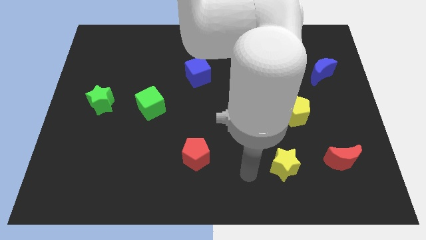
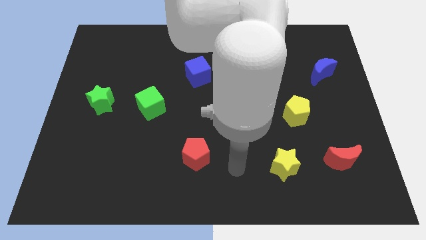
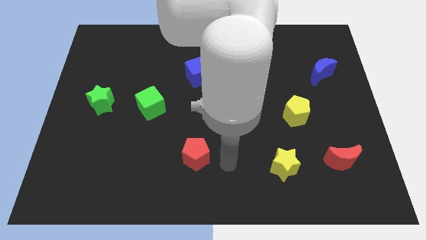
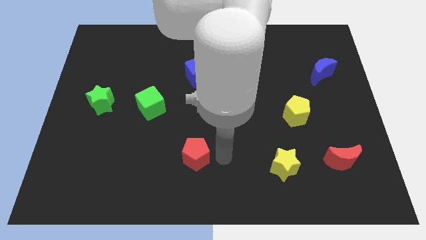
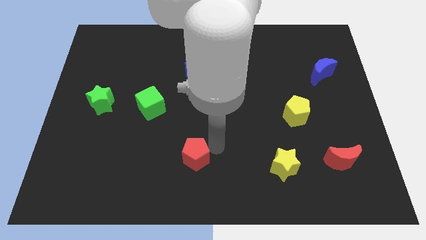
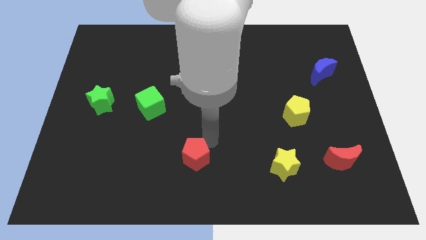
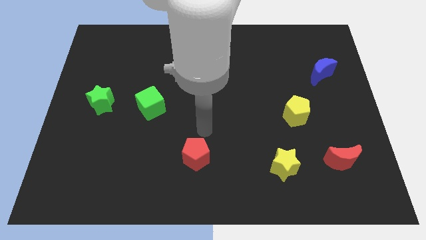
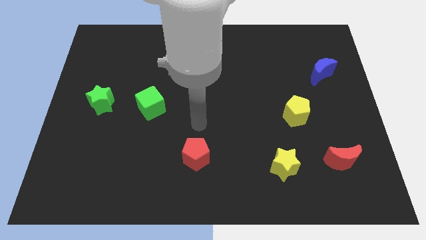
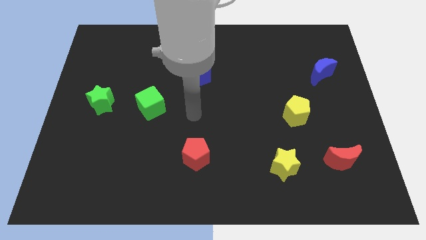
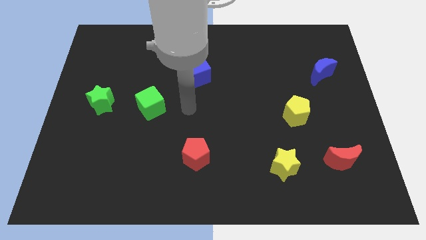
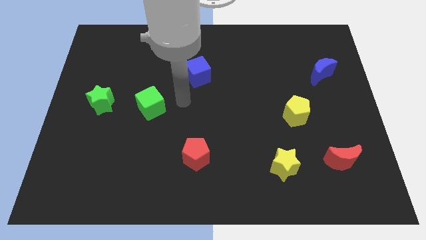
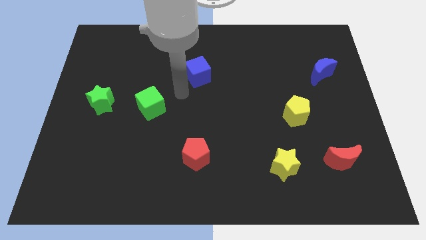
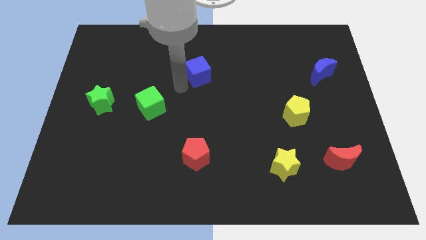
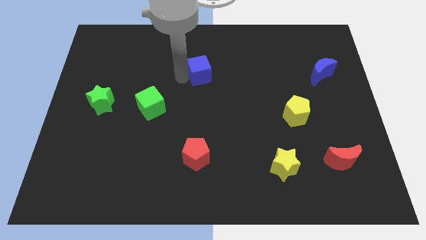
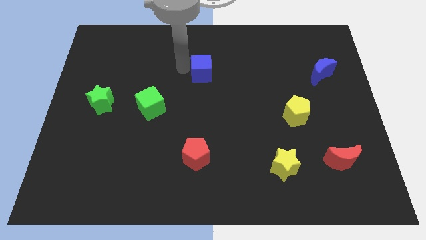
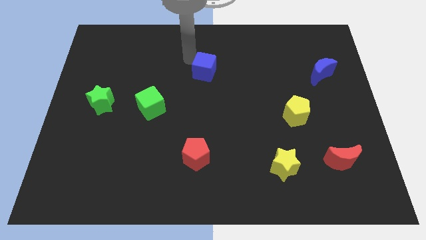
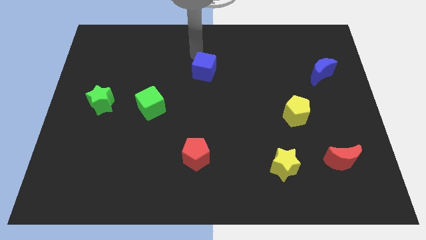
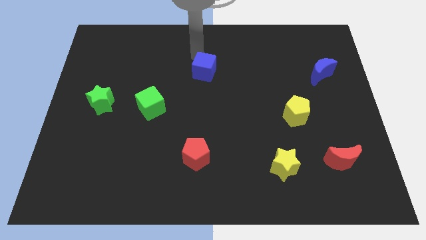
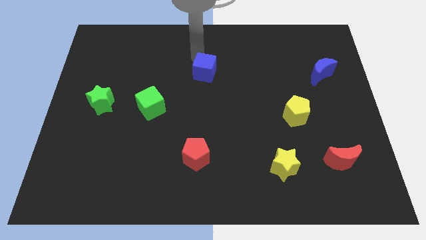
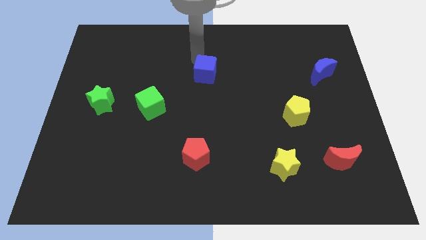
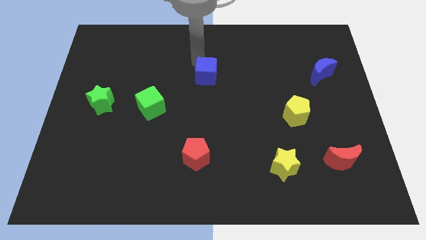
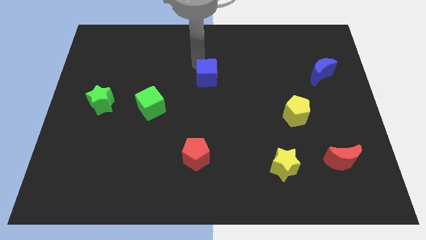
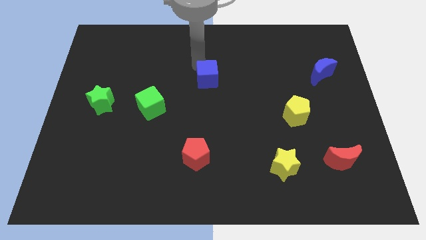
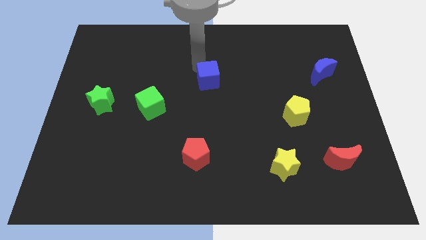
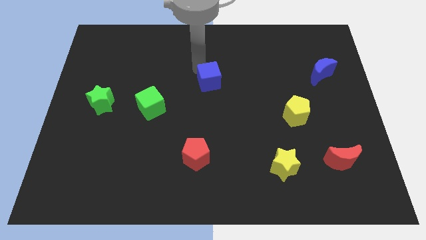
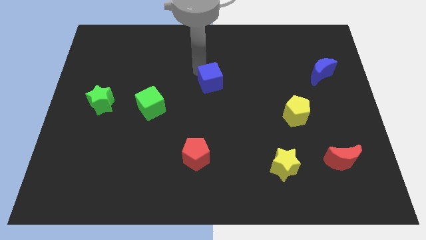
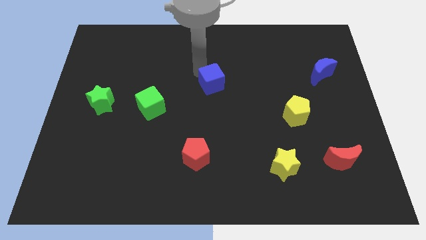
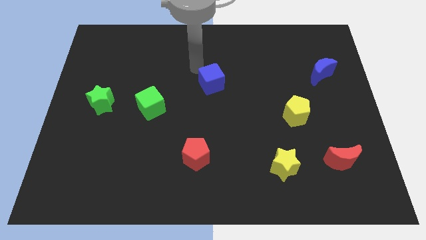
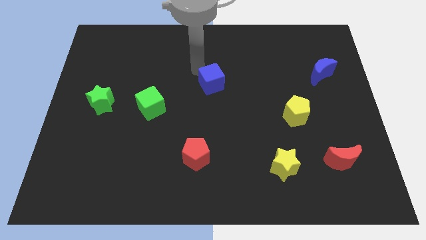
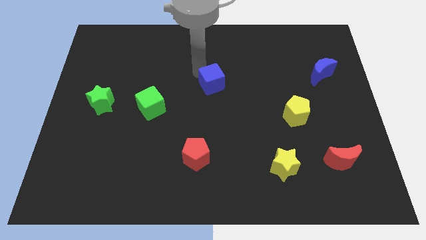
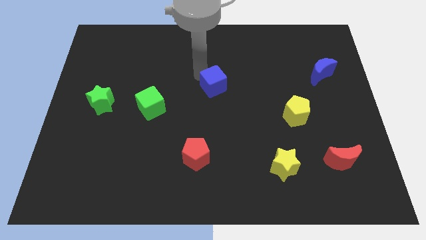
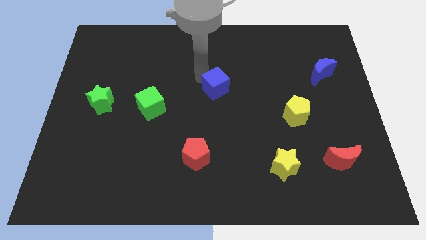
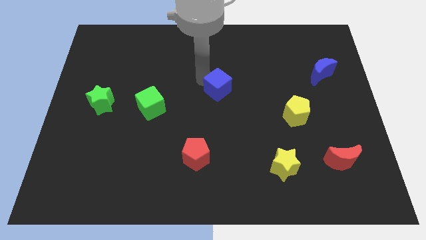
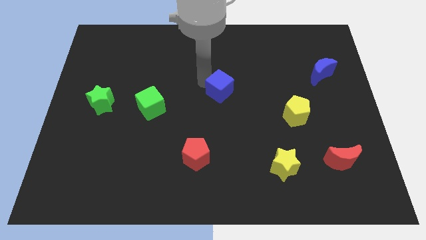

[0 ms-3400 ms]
move the blue cube slightly down and right diagonally

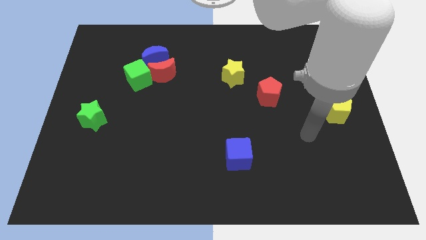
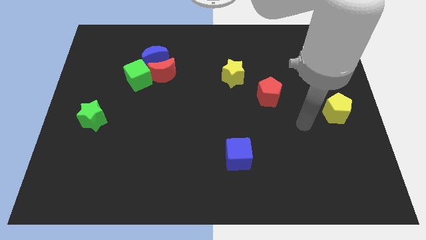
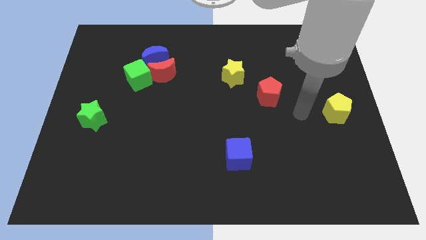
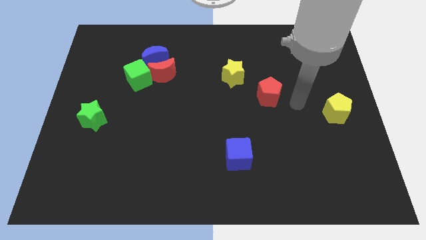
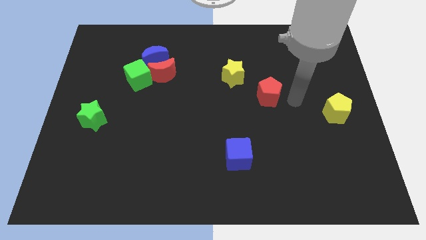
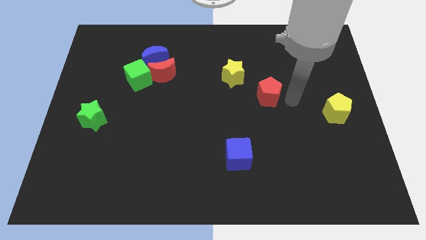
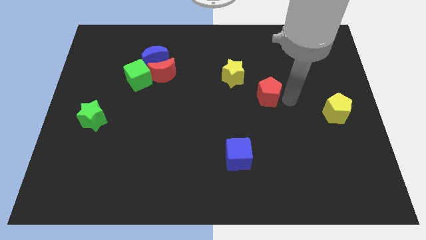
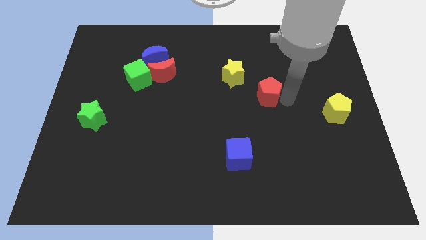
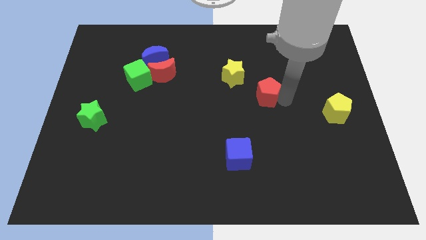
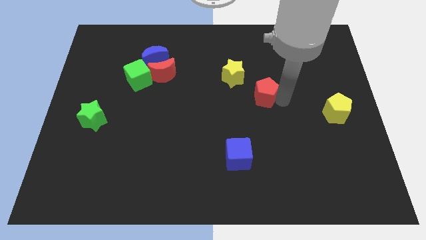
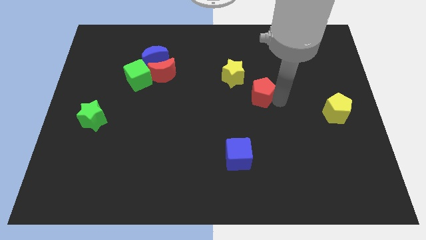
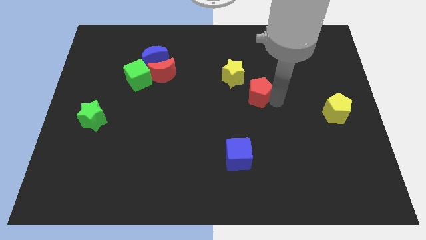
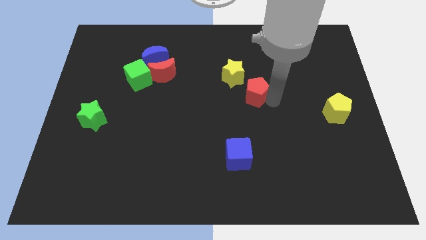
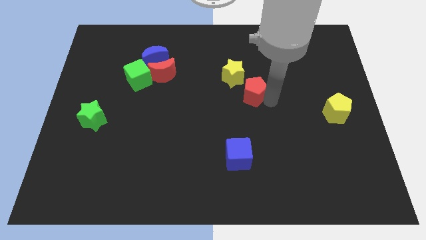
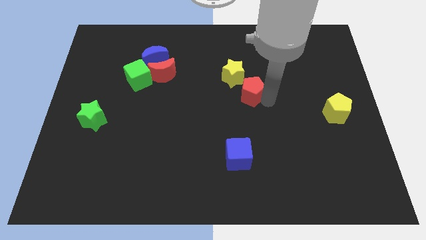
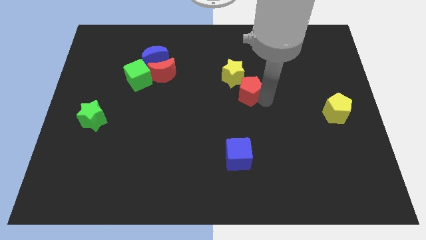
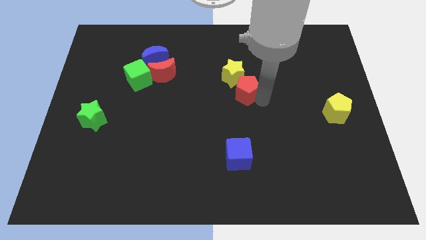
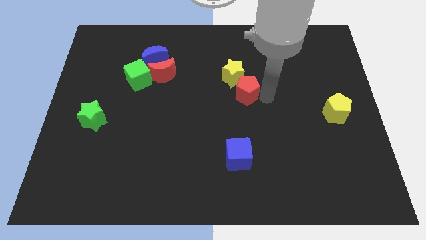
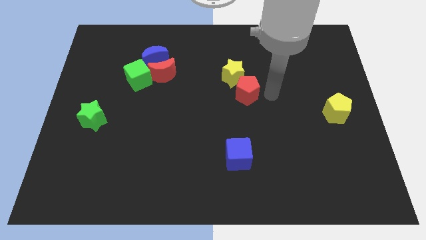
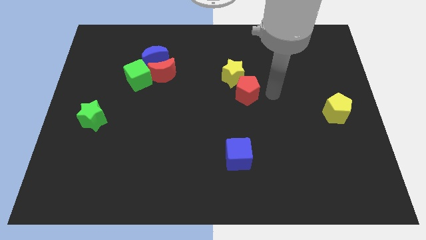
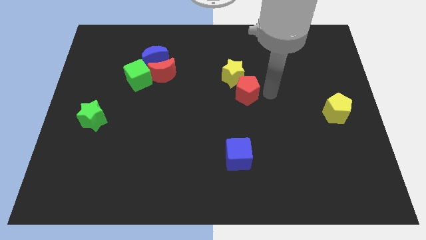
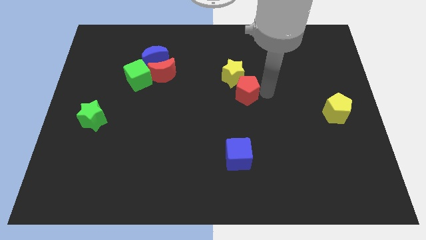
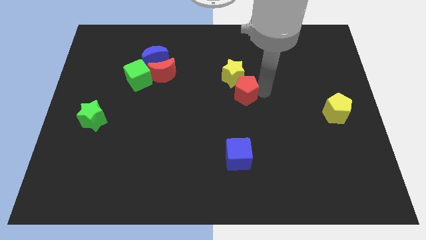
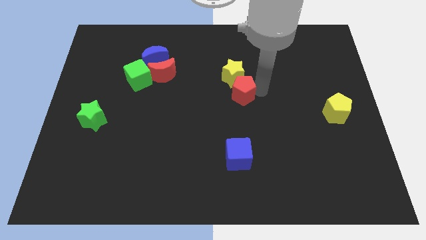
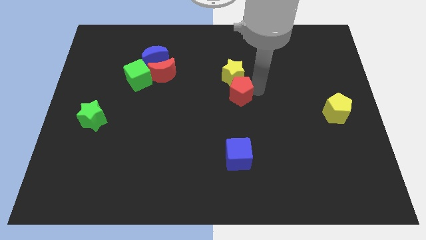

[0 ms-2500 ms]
move the red pentagon to the left a little bit

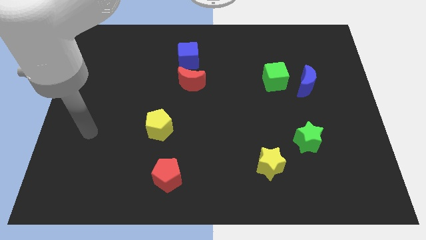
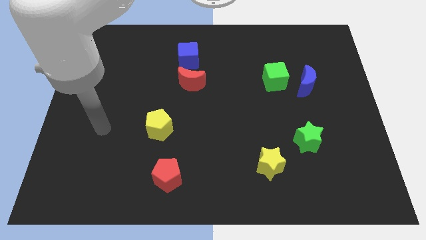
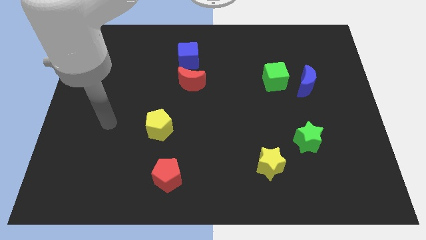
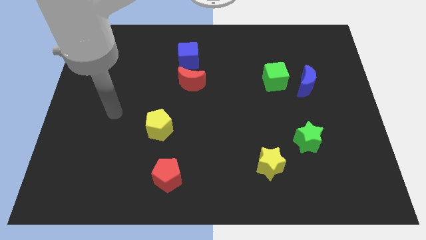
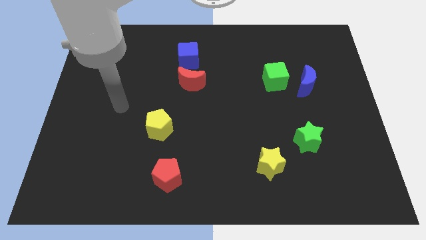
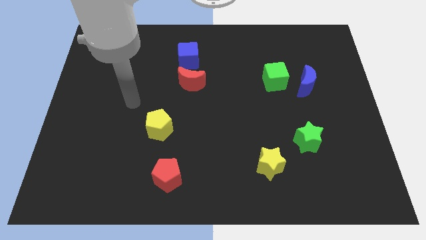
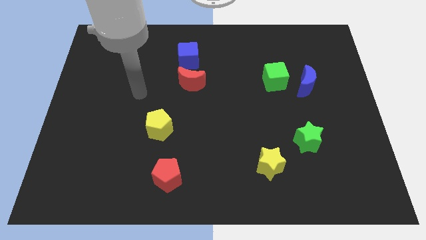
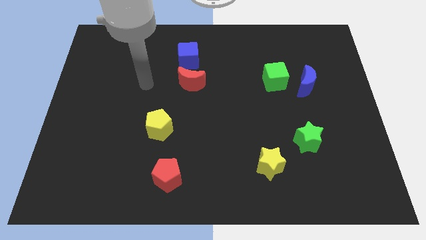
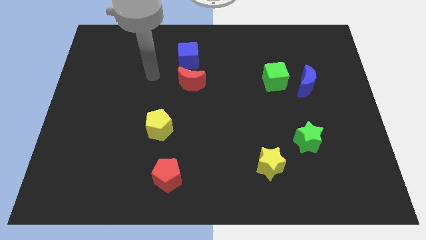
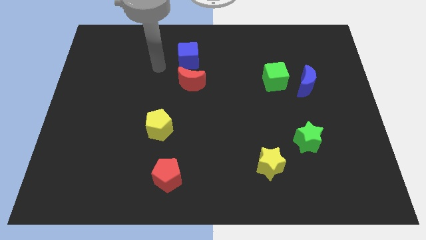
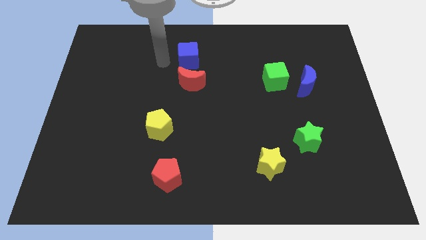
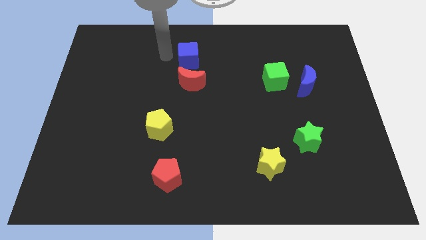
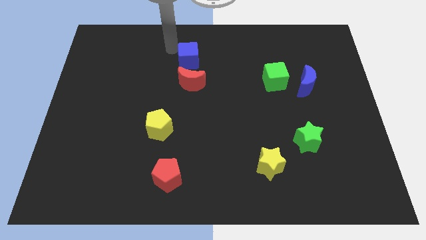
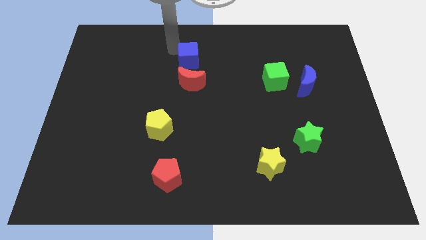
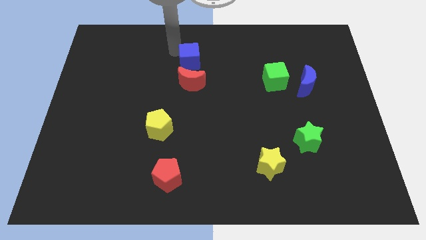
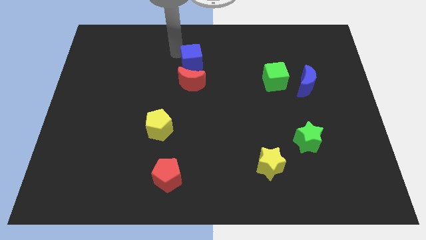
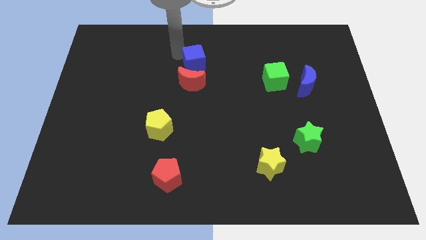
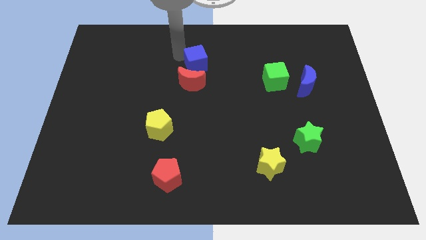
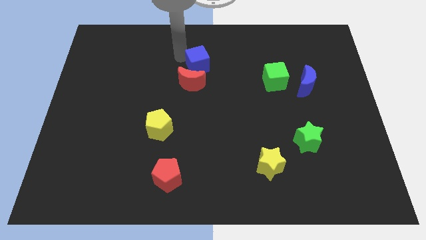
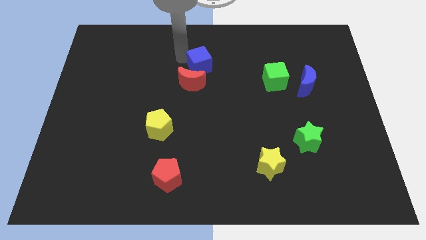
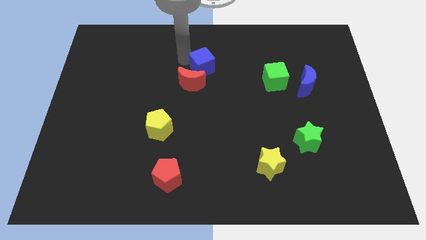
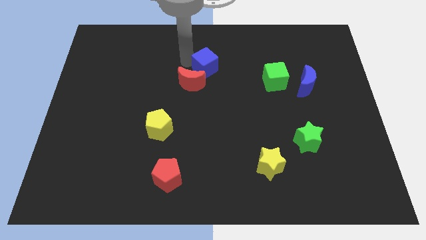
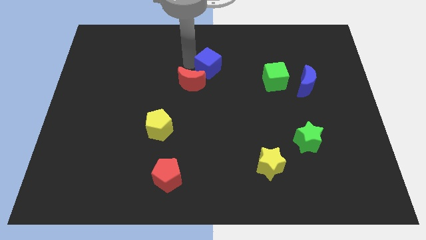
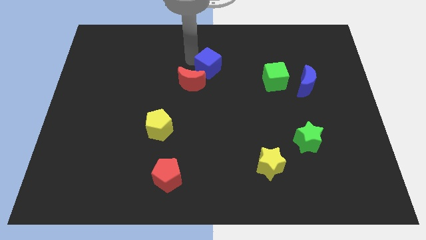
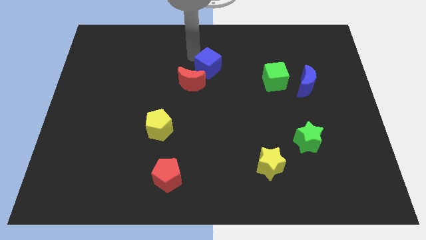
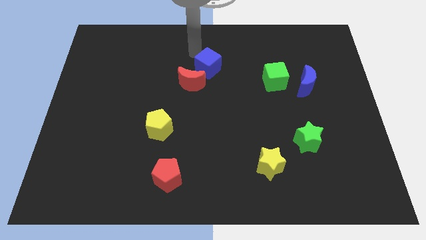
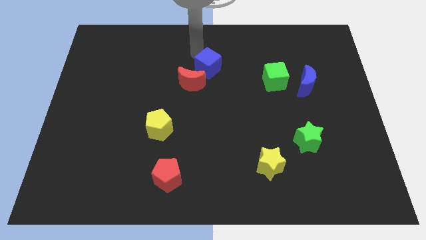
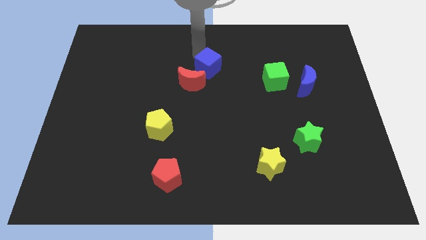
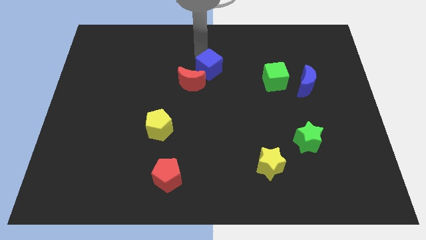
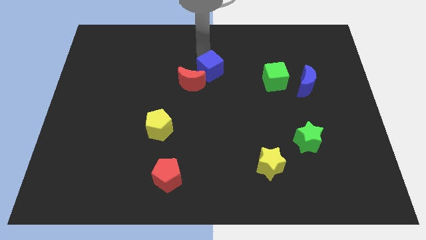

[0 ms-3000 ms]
slightly slide the blue cube diagonally down and right
